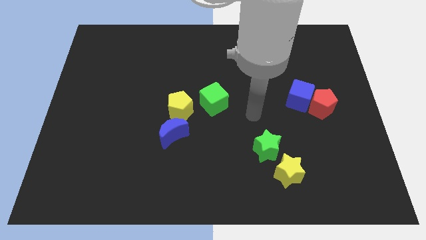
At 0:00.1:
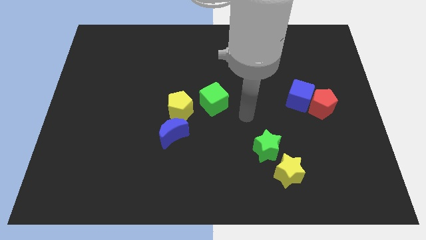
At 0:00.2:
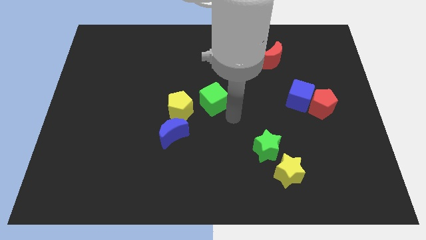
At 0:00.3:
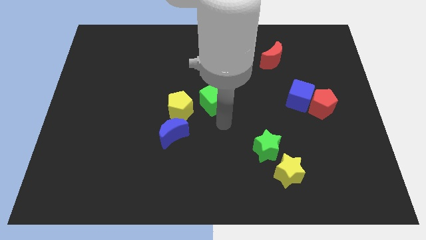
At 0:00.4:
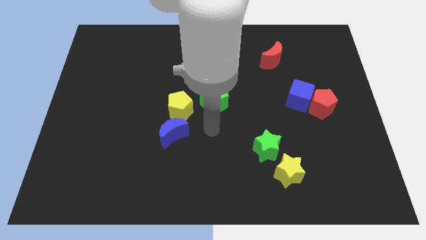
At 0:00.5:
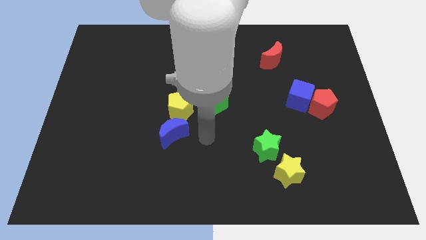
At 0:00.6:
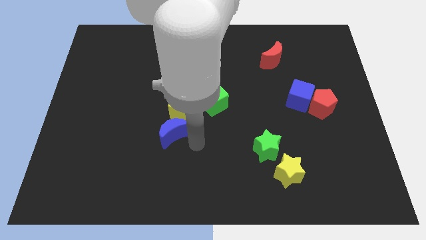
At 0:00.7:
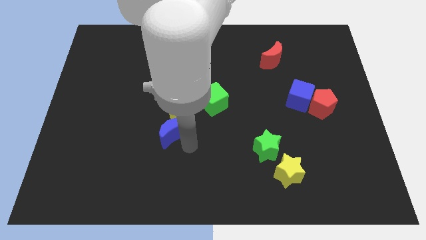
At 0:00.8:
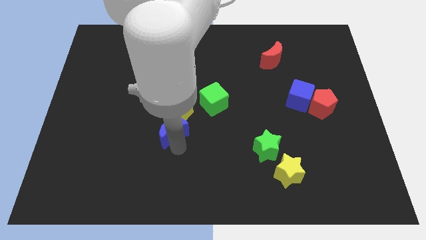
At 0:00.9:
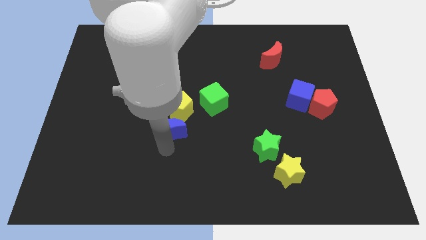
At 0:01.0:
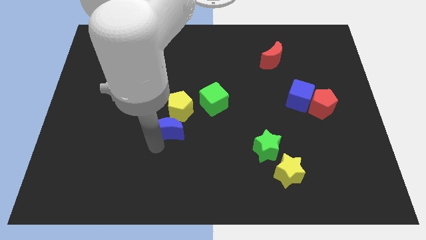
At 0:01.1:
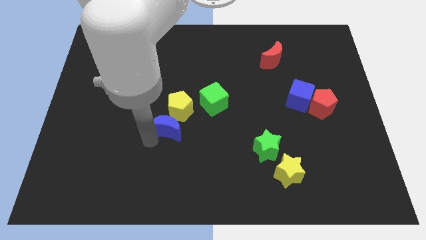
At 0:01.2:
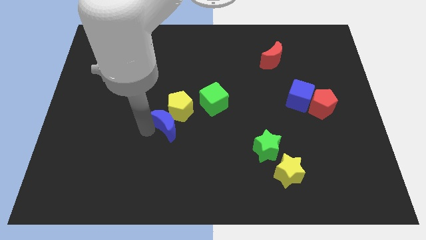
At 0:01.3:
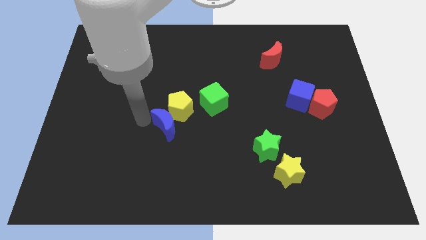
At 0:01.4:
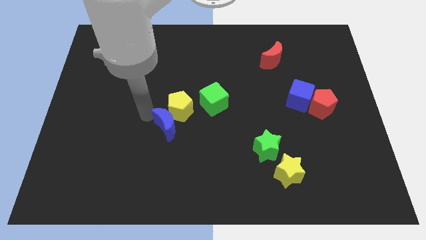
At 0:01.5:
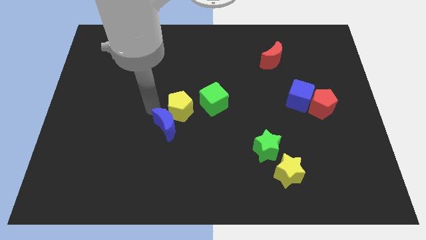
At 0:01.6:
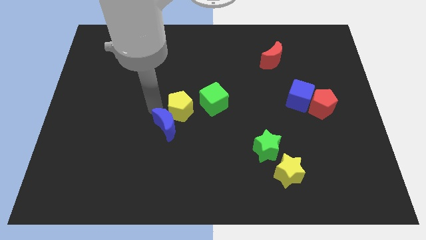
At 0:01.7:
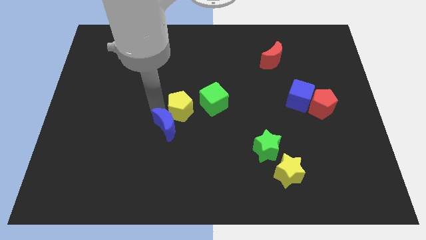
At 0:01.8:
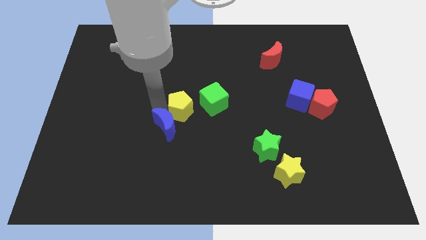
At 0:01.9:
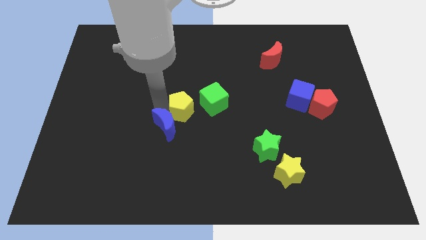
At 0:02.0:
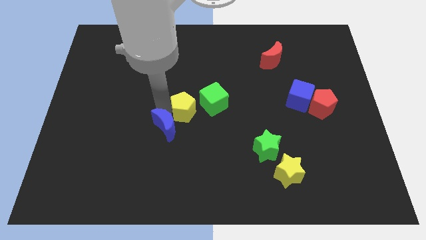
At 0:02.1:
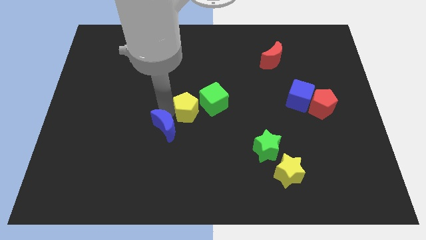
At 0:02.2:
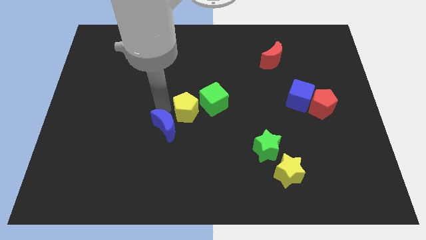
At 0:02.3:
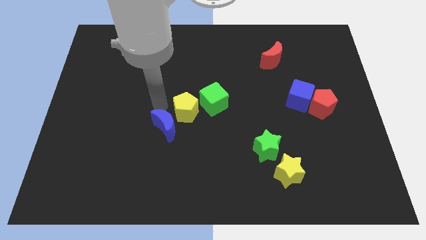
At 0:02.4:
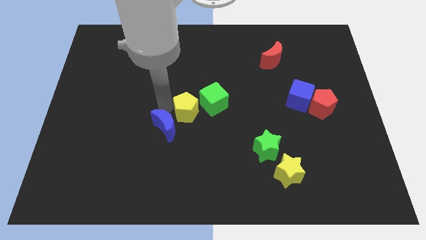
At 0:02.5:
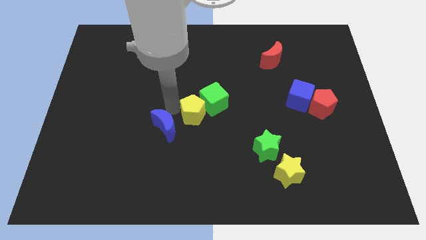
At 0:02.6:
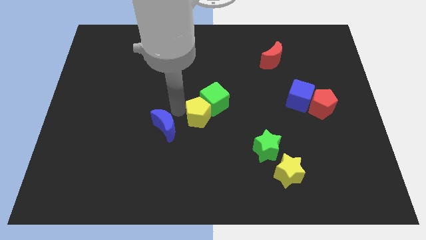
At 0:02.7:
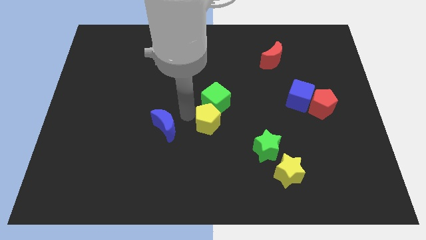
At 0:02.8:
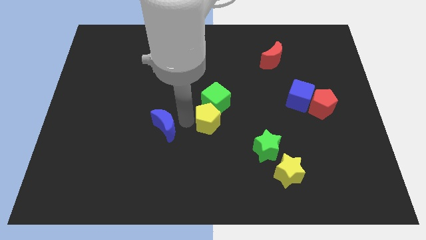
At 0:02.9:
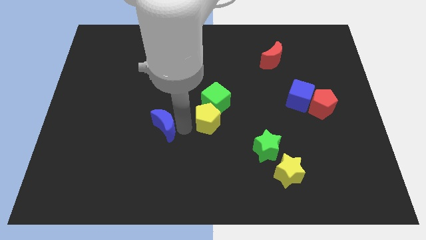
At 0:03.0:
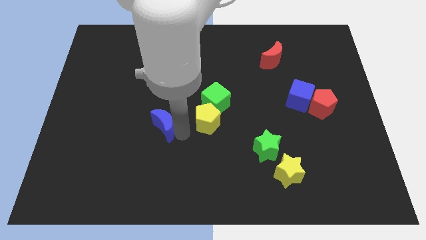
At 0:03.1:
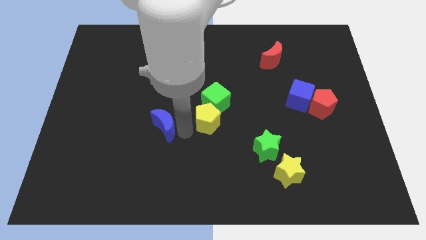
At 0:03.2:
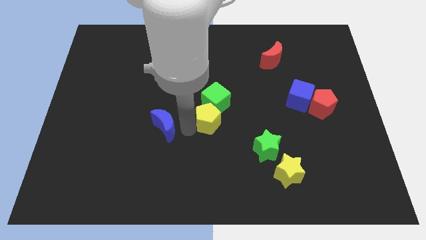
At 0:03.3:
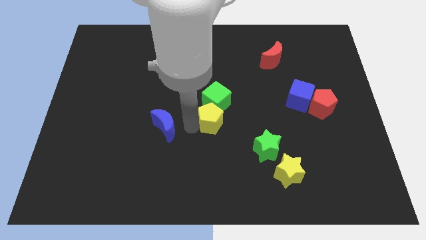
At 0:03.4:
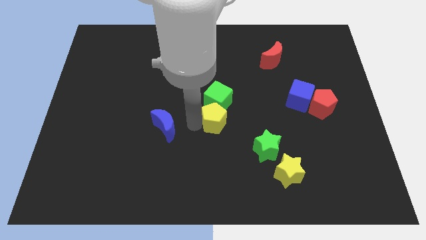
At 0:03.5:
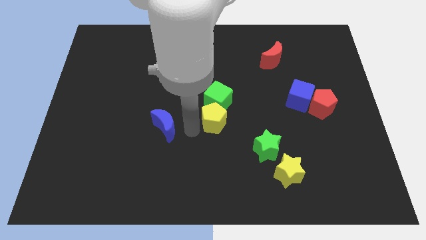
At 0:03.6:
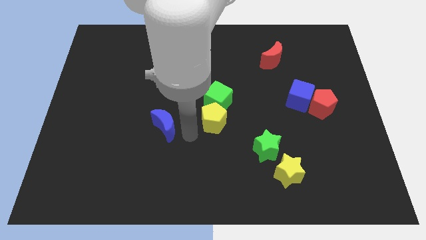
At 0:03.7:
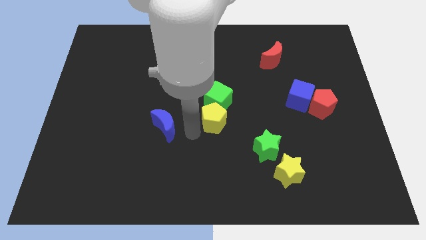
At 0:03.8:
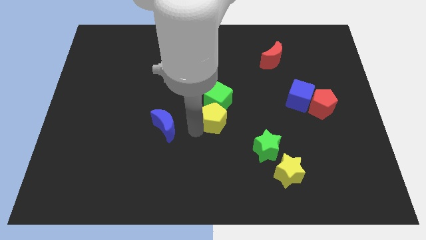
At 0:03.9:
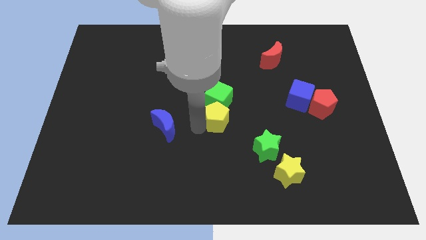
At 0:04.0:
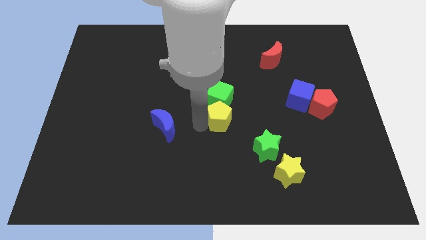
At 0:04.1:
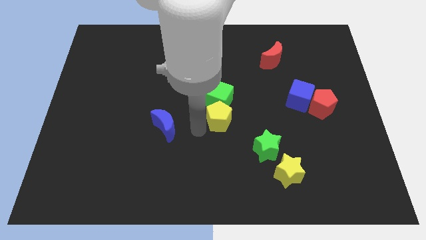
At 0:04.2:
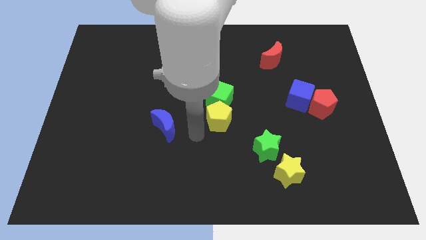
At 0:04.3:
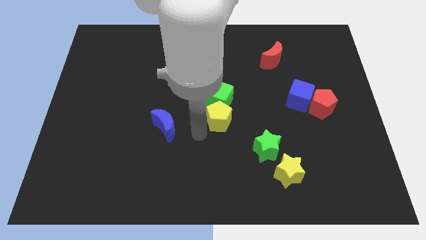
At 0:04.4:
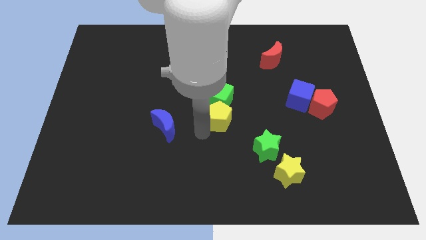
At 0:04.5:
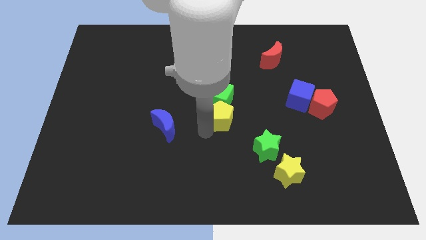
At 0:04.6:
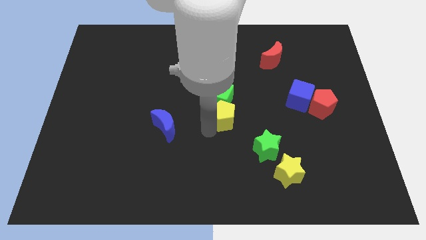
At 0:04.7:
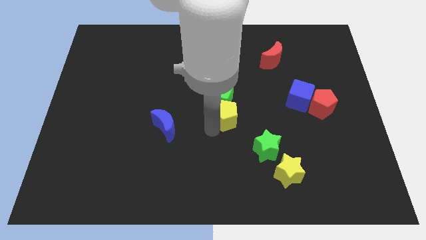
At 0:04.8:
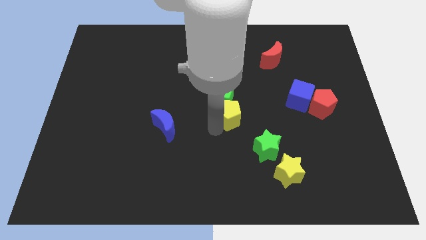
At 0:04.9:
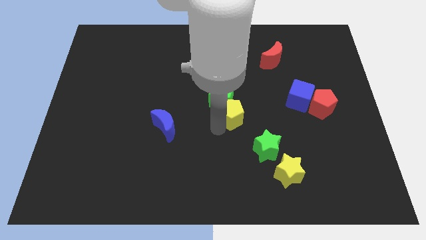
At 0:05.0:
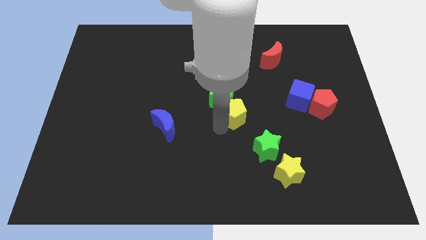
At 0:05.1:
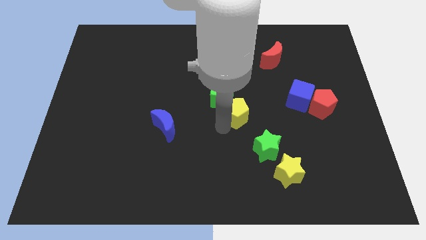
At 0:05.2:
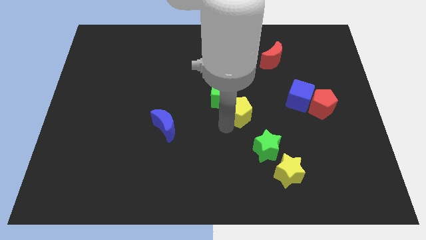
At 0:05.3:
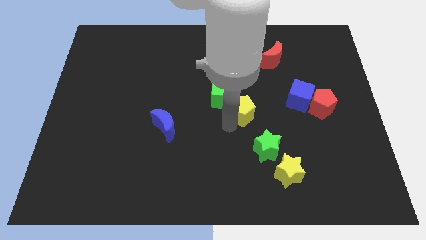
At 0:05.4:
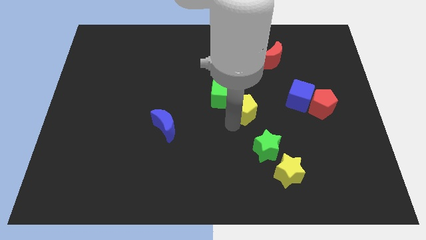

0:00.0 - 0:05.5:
push the yellow pentagon to the left side of the blue cube

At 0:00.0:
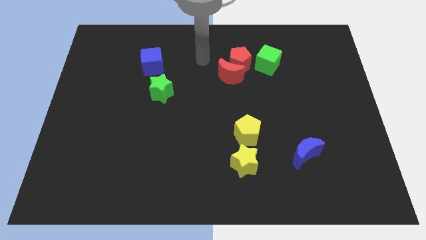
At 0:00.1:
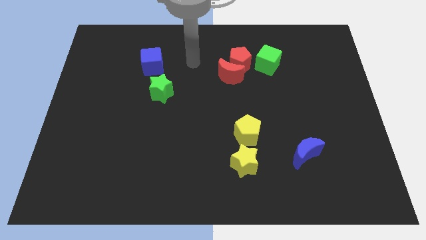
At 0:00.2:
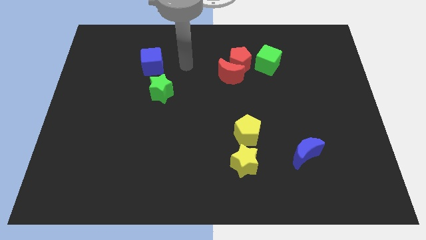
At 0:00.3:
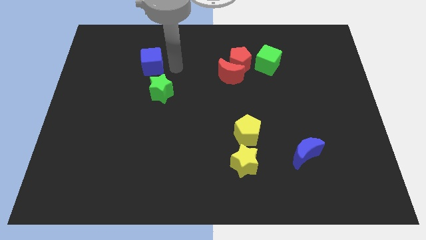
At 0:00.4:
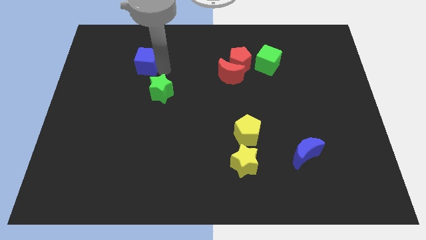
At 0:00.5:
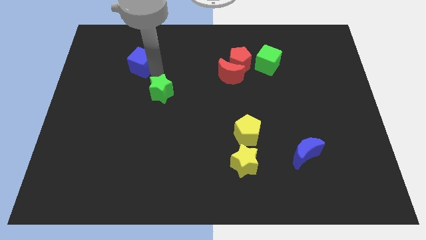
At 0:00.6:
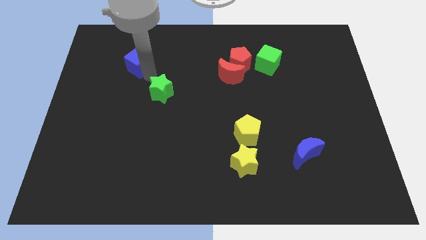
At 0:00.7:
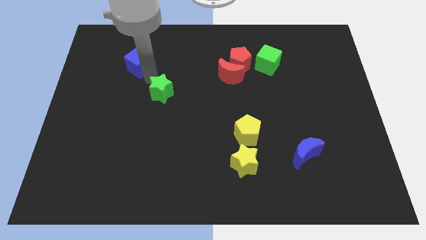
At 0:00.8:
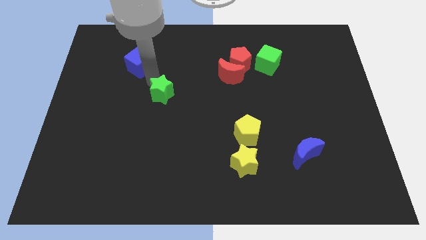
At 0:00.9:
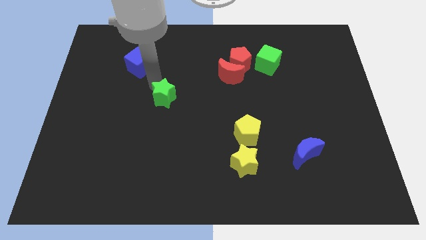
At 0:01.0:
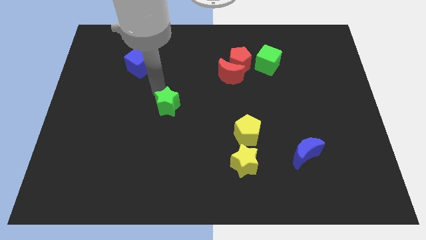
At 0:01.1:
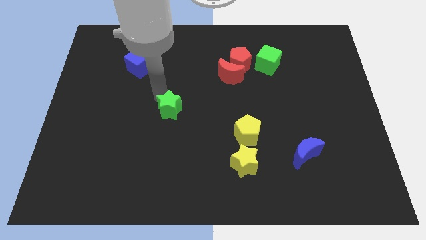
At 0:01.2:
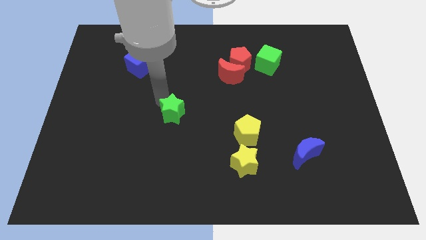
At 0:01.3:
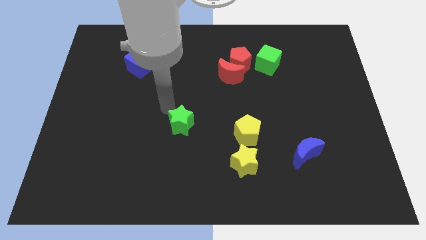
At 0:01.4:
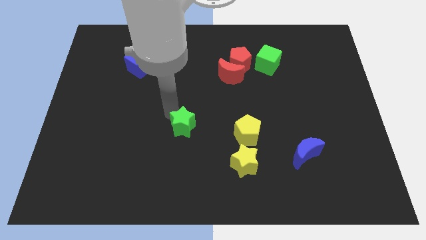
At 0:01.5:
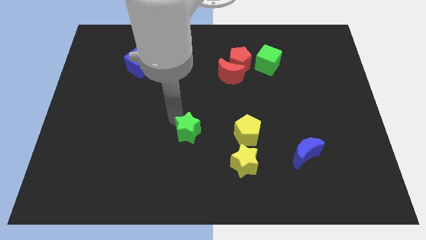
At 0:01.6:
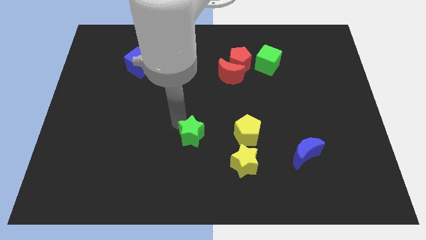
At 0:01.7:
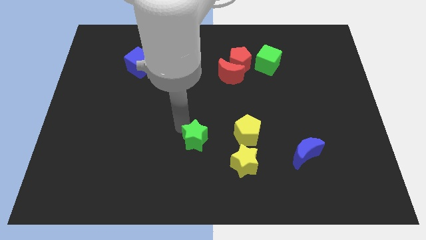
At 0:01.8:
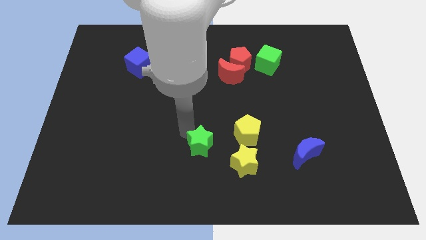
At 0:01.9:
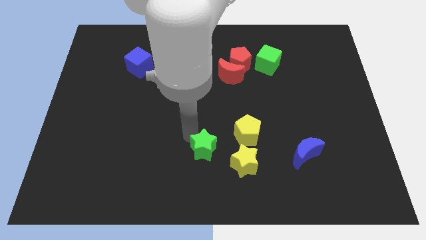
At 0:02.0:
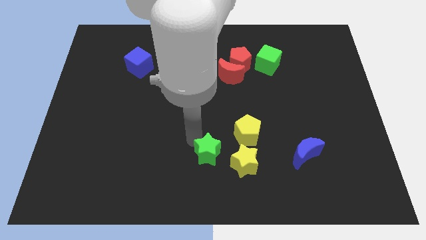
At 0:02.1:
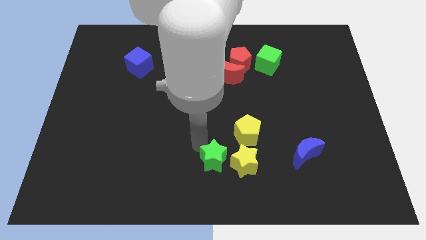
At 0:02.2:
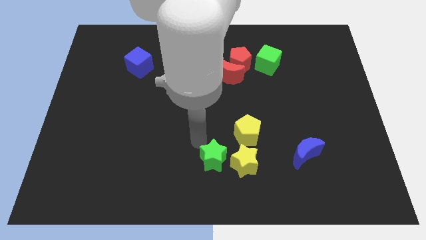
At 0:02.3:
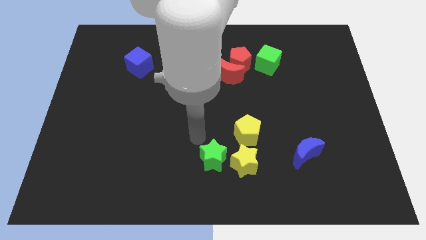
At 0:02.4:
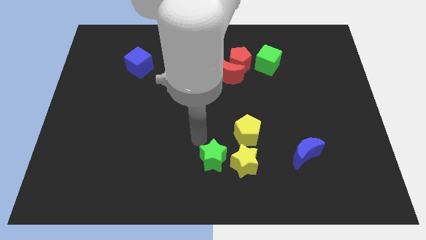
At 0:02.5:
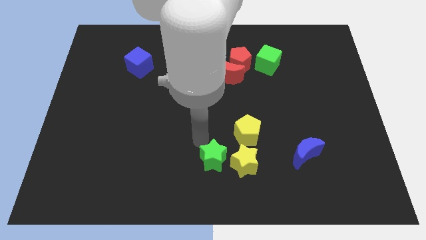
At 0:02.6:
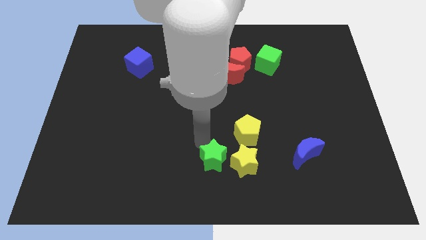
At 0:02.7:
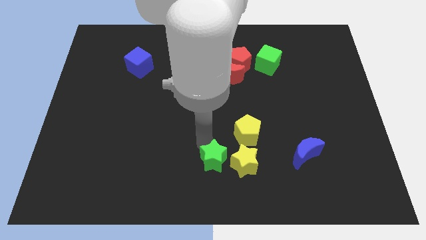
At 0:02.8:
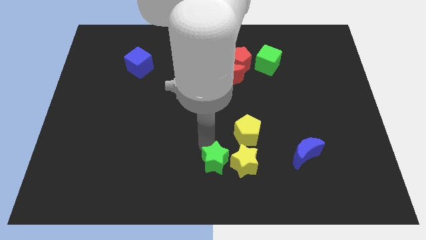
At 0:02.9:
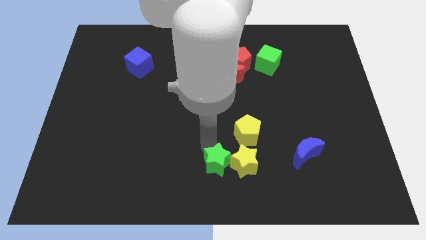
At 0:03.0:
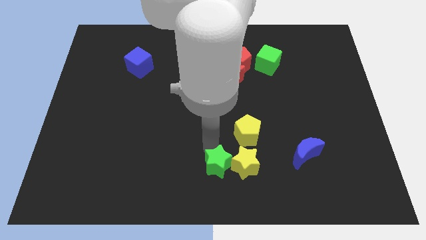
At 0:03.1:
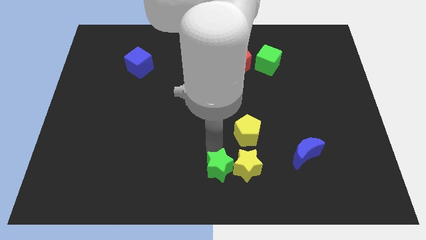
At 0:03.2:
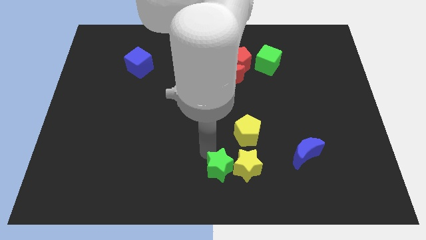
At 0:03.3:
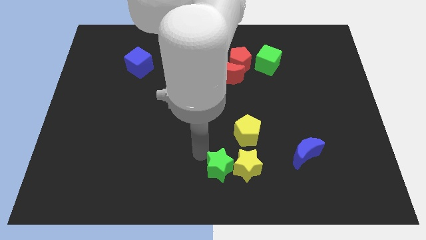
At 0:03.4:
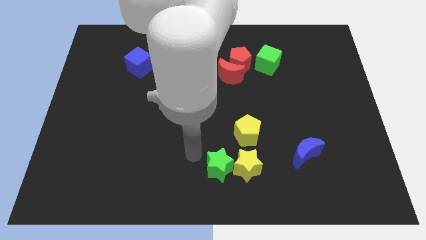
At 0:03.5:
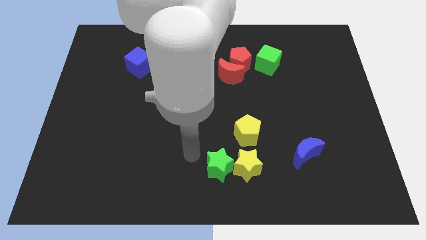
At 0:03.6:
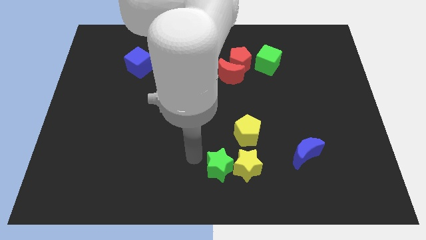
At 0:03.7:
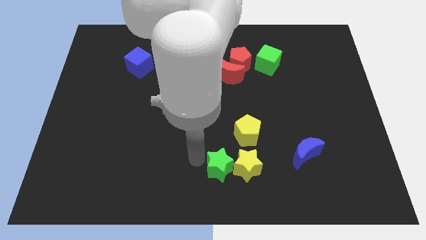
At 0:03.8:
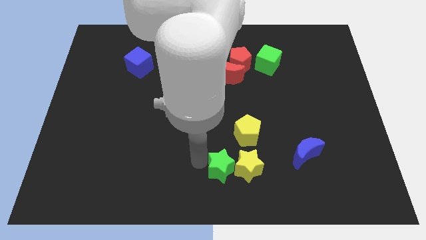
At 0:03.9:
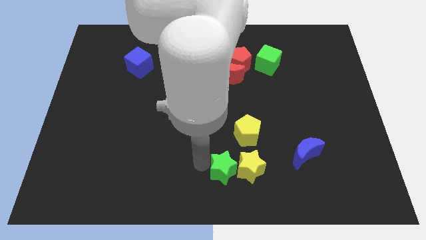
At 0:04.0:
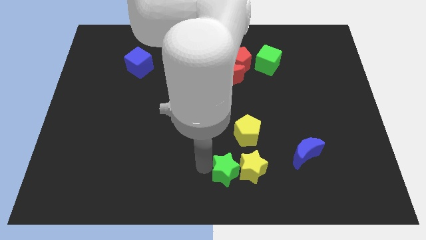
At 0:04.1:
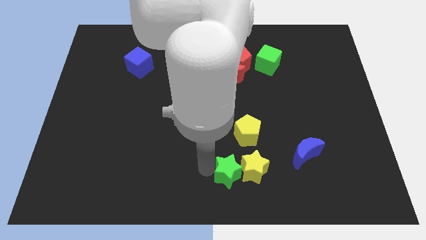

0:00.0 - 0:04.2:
put the green star to the bottom of the yellow pentagon
